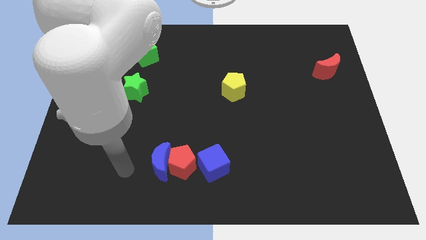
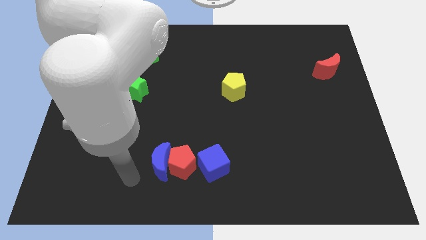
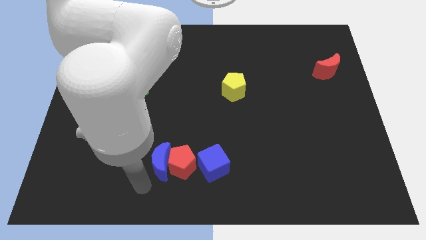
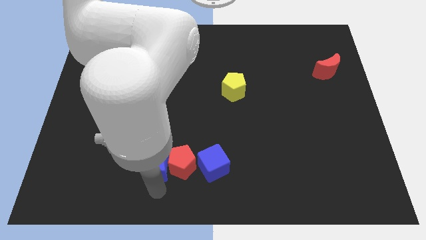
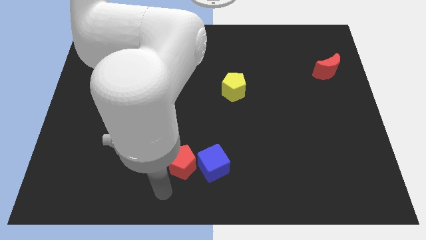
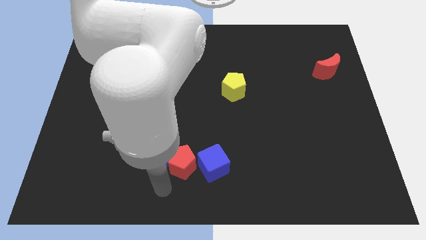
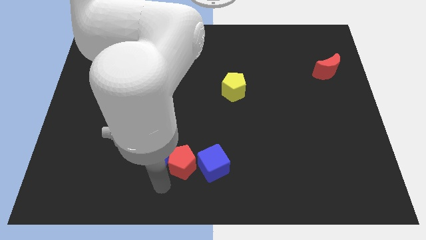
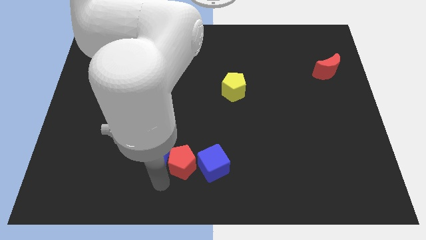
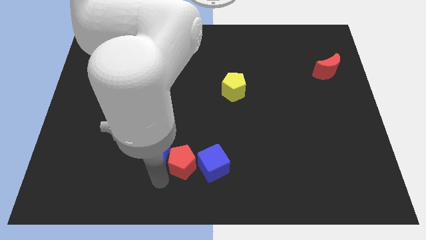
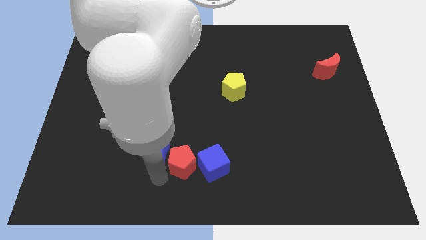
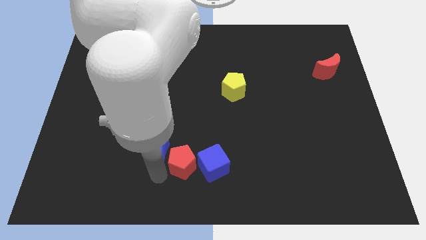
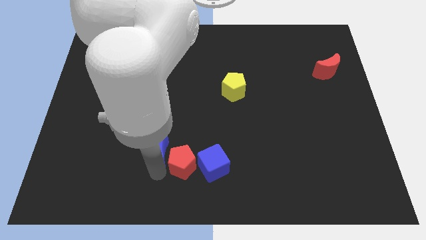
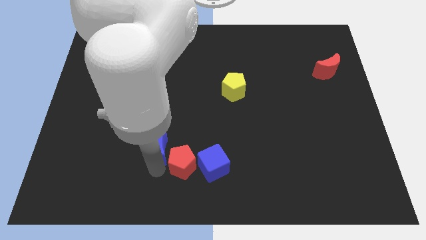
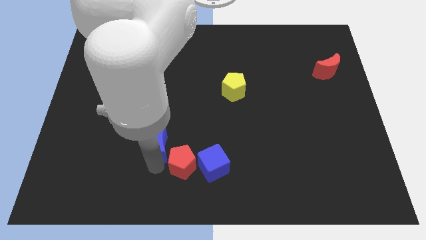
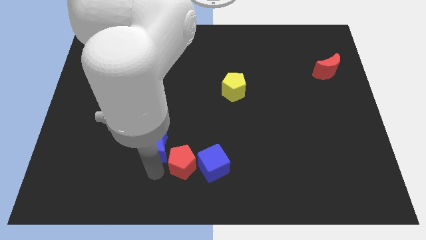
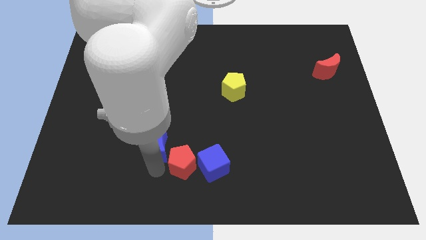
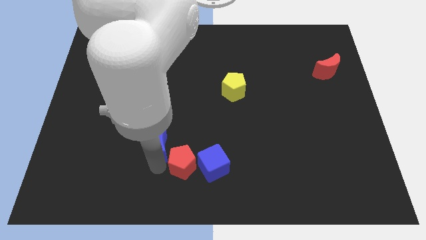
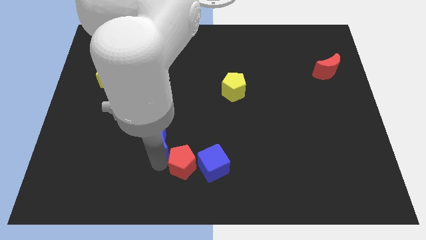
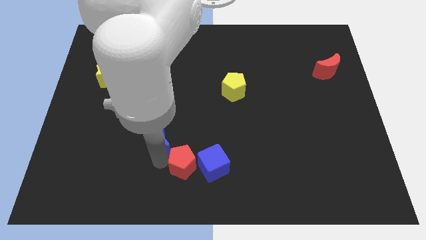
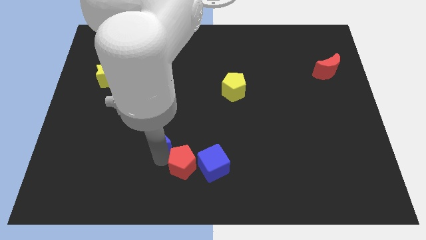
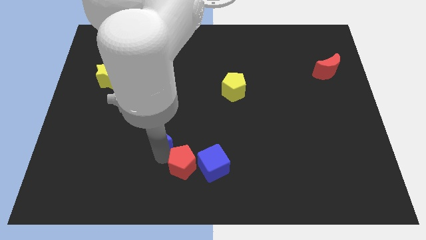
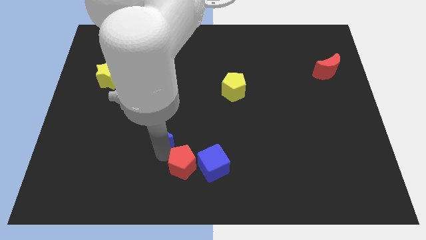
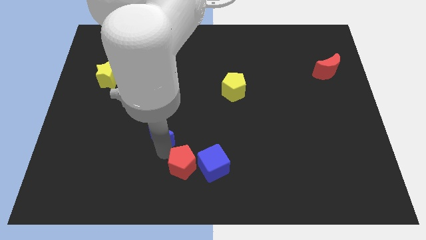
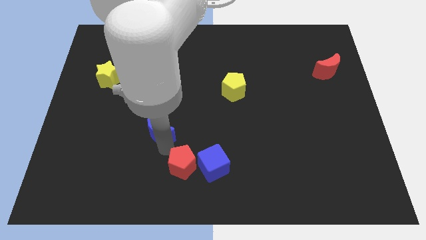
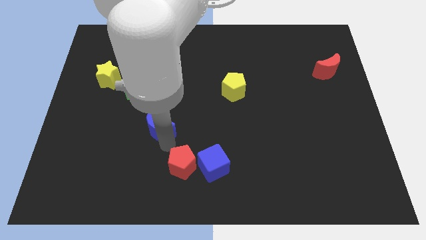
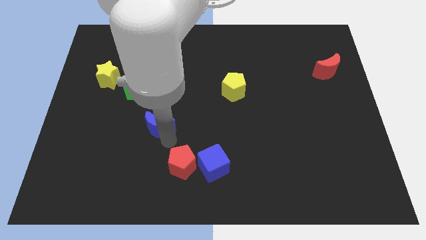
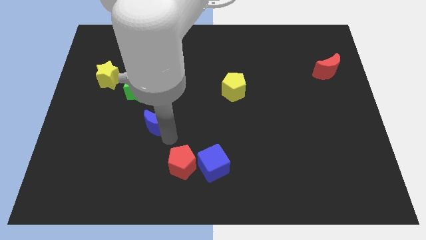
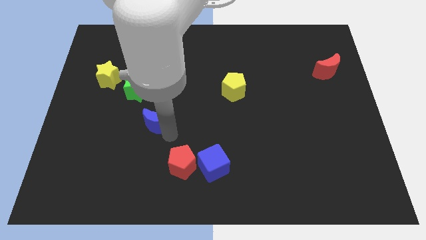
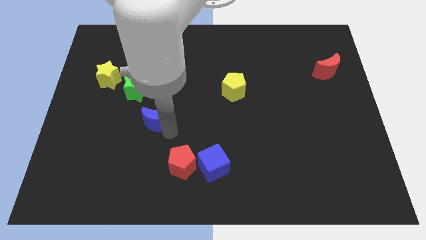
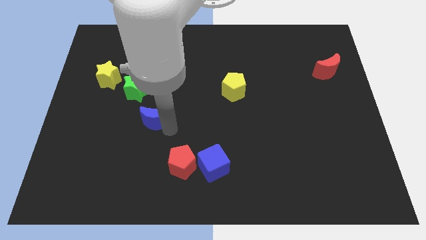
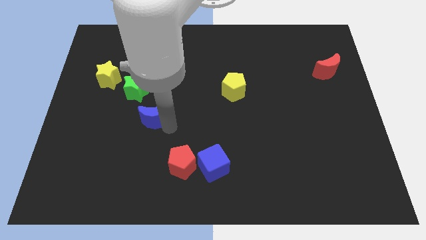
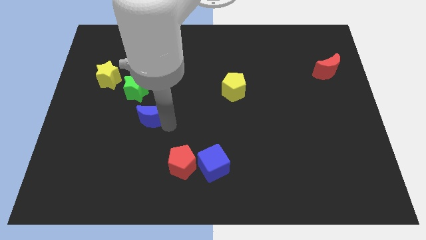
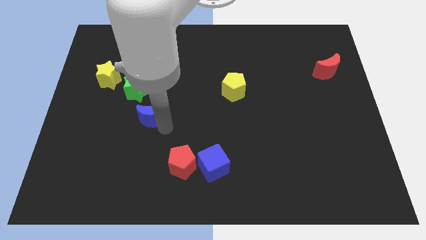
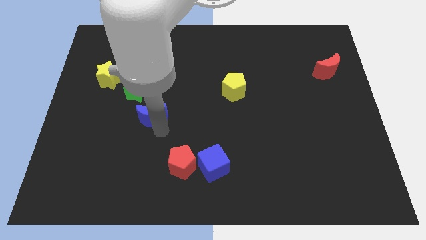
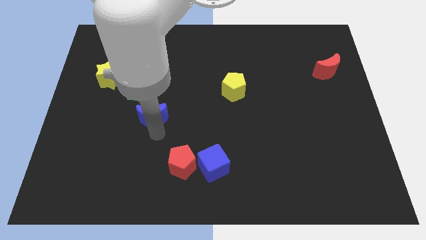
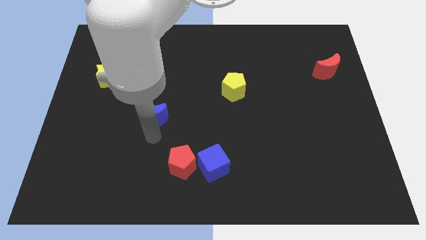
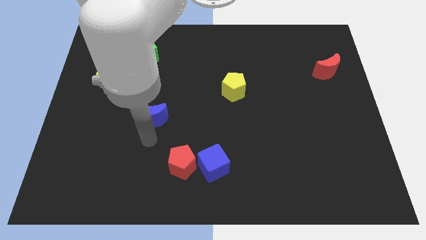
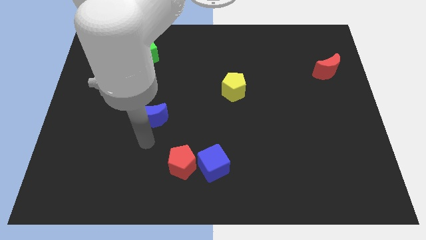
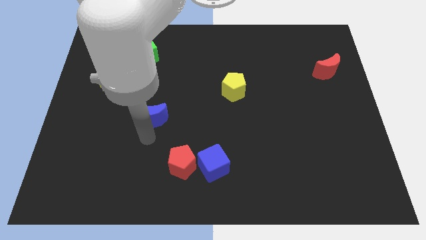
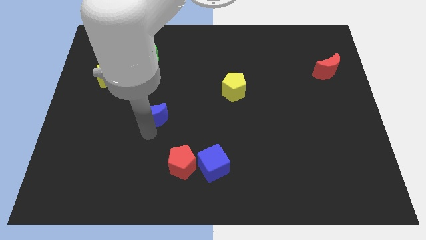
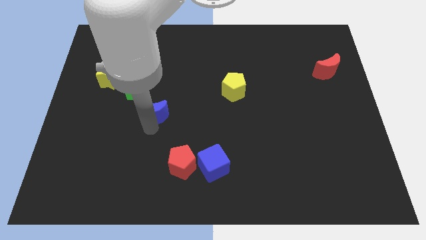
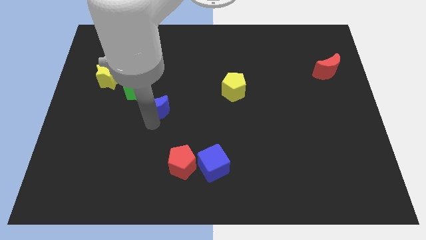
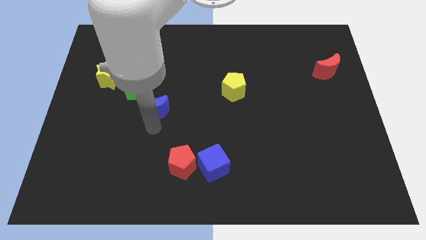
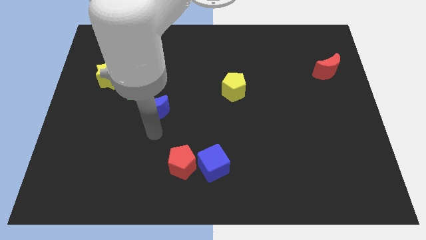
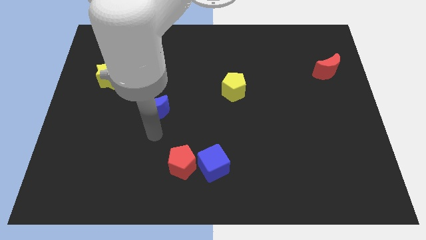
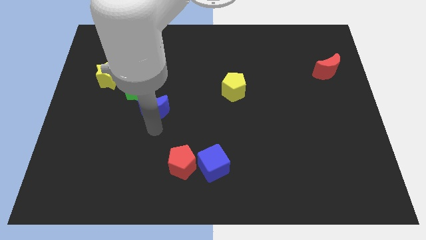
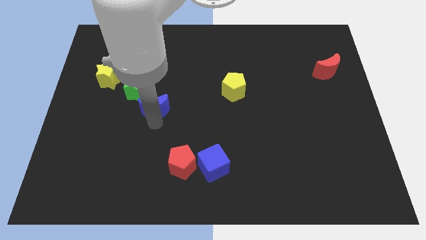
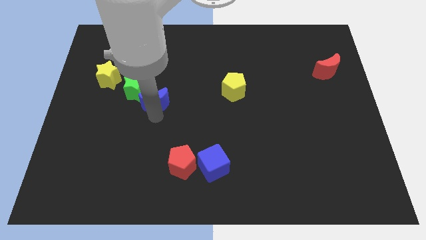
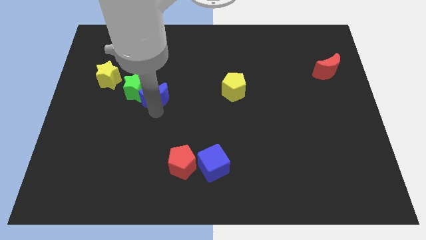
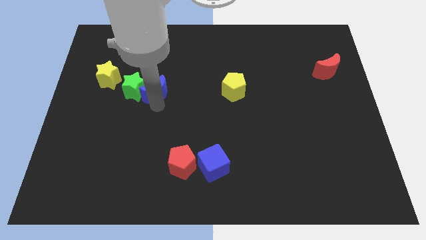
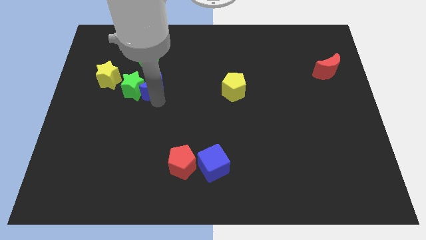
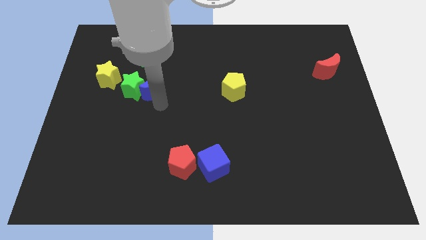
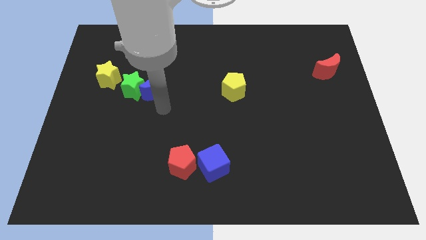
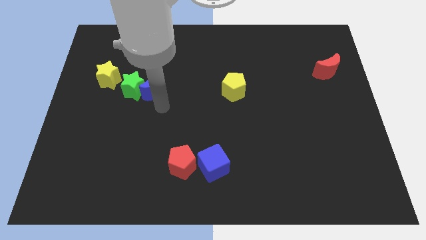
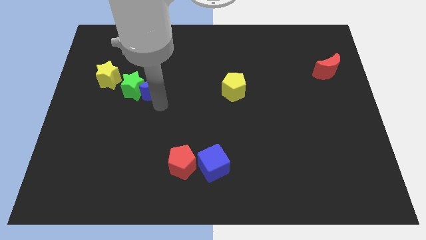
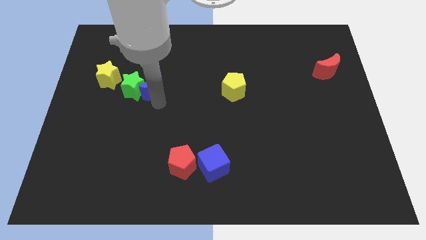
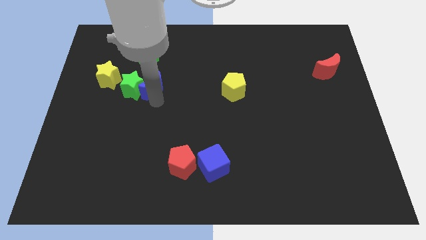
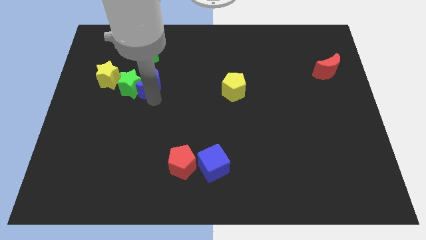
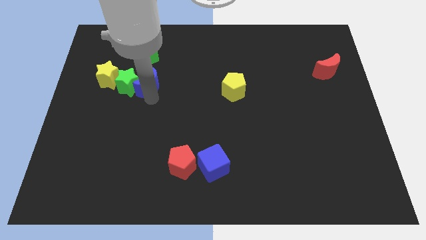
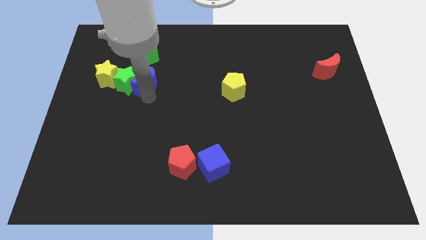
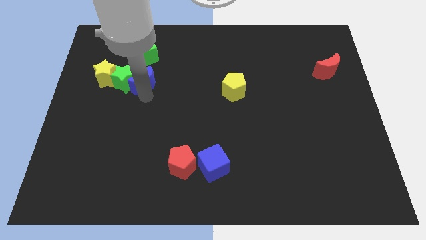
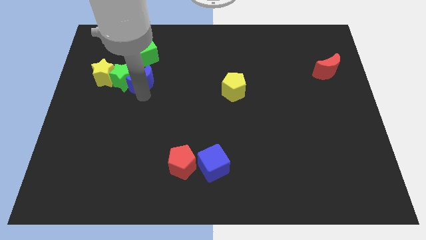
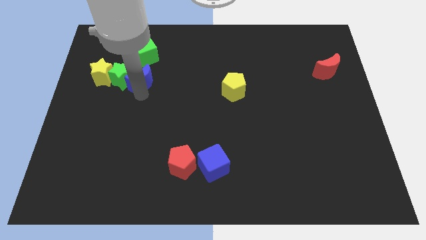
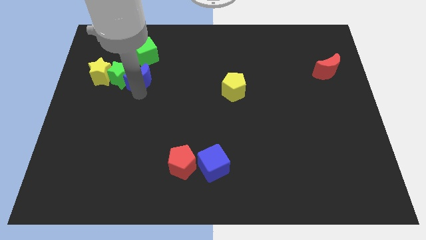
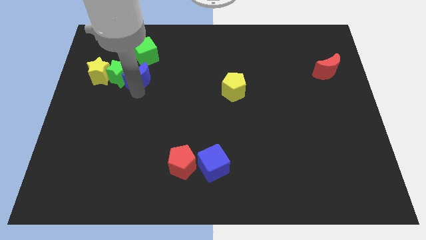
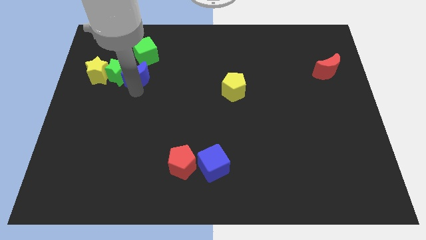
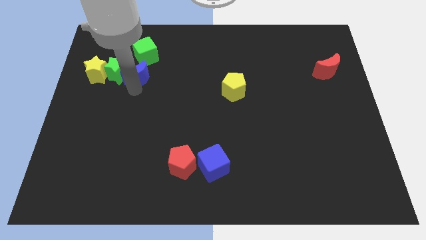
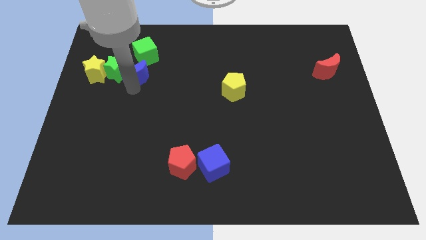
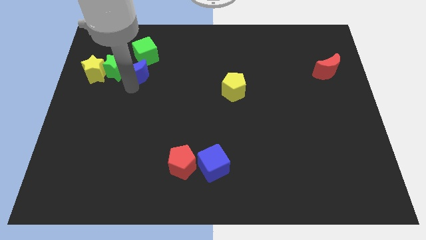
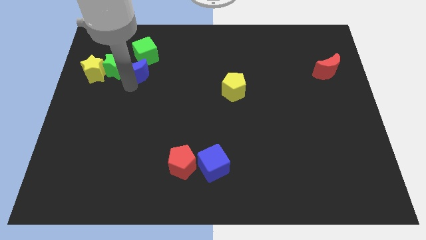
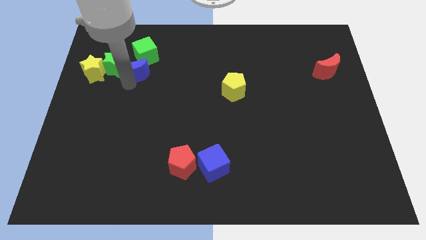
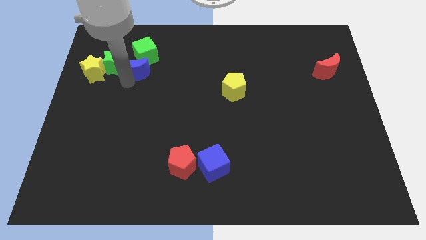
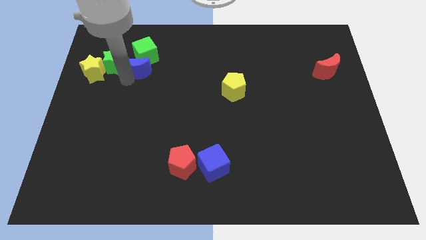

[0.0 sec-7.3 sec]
push the blue moon to the green cube
